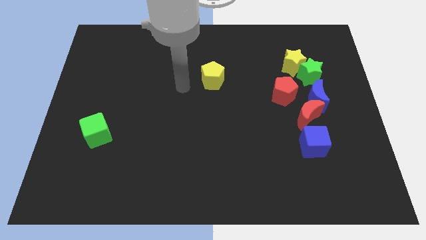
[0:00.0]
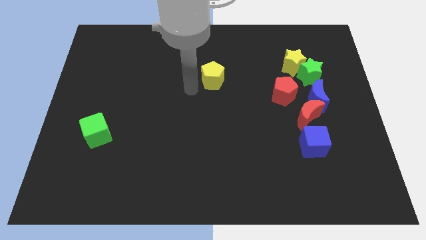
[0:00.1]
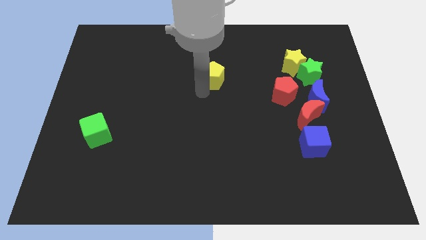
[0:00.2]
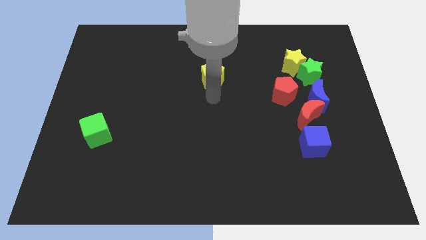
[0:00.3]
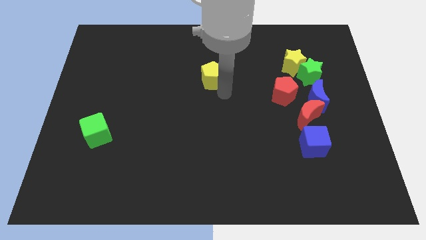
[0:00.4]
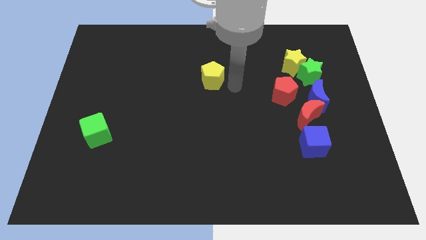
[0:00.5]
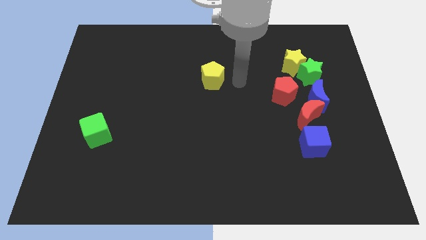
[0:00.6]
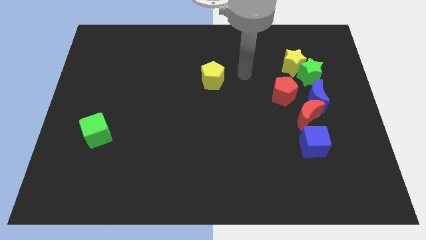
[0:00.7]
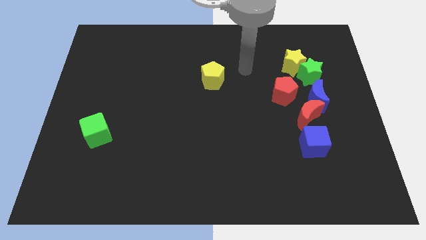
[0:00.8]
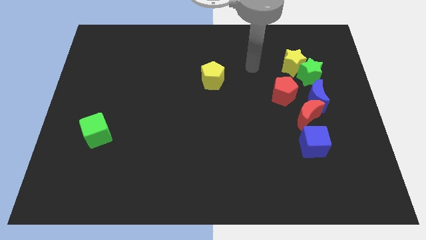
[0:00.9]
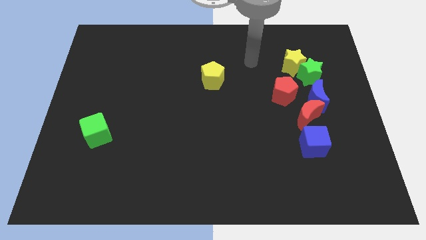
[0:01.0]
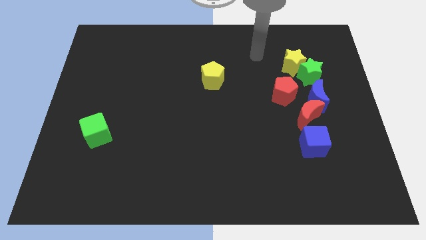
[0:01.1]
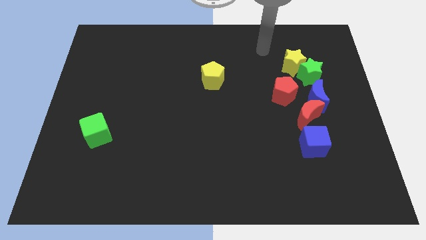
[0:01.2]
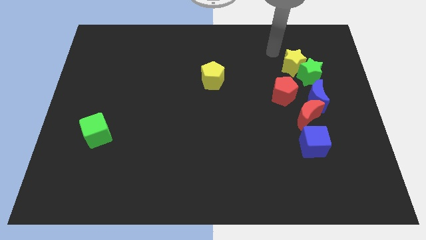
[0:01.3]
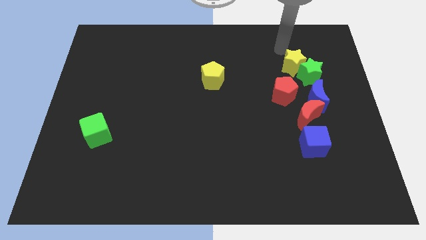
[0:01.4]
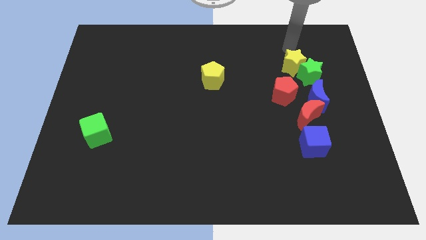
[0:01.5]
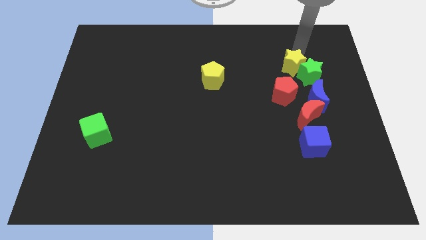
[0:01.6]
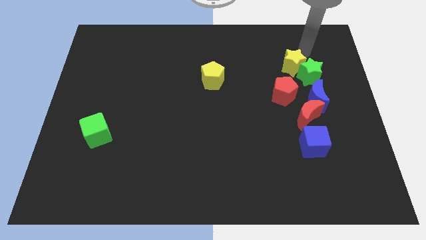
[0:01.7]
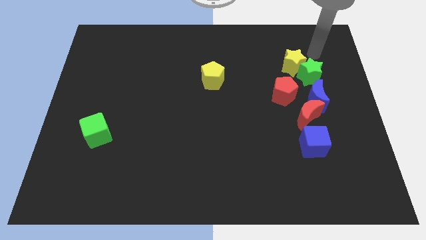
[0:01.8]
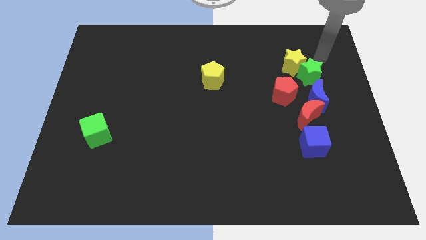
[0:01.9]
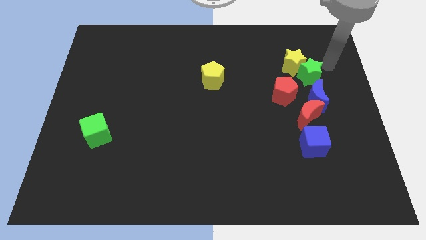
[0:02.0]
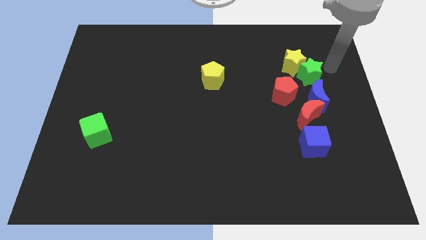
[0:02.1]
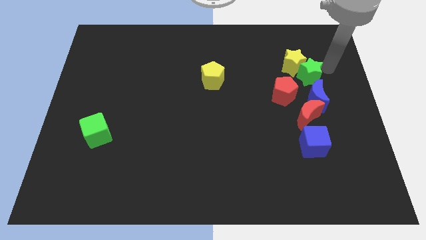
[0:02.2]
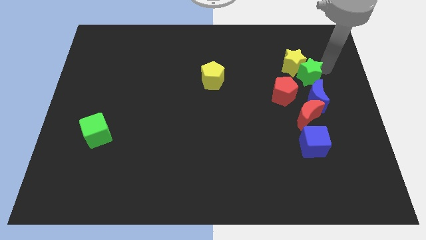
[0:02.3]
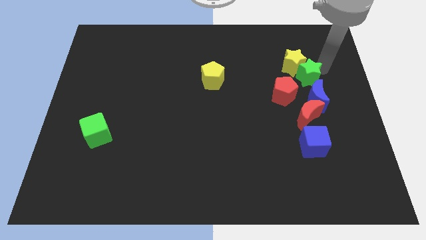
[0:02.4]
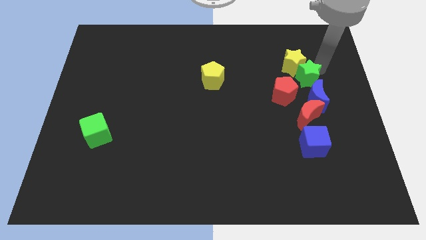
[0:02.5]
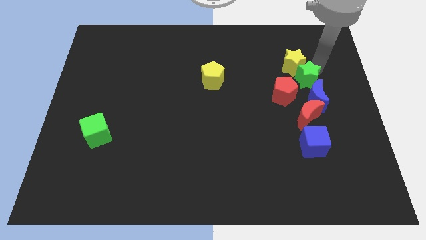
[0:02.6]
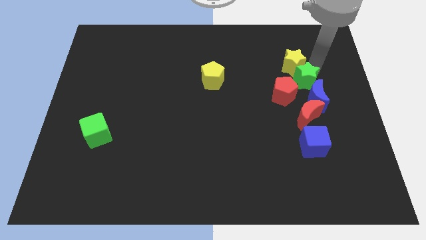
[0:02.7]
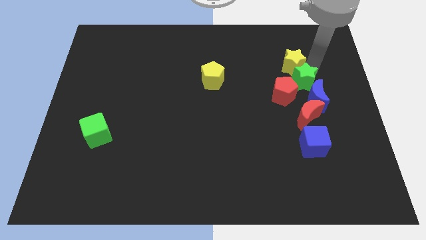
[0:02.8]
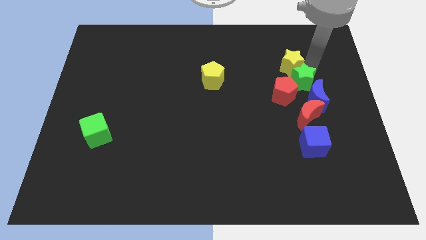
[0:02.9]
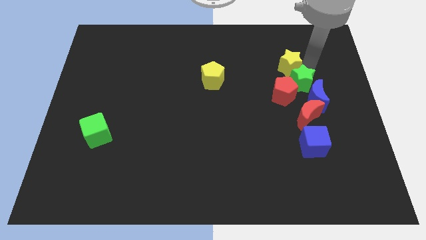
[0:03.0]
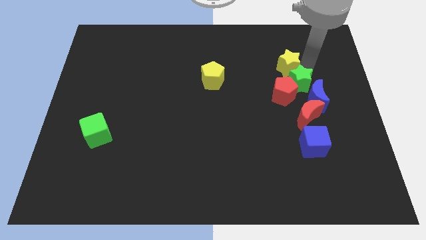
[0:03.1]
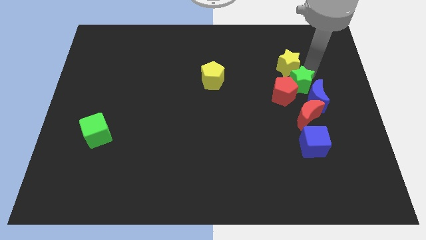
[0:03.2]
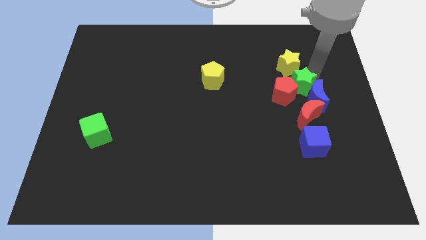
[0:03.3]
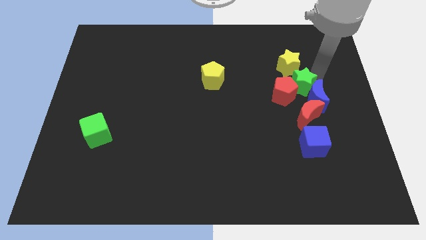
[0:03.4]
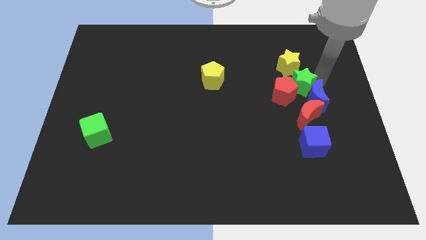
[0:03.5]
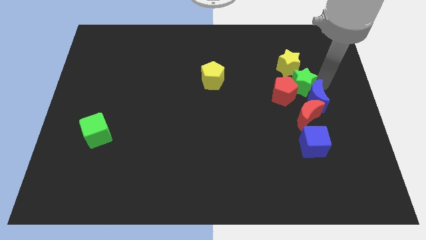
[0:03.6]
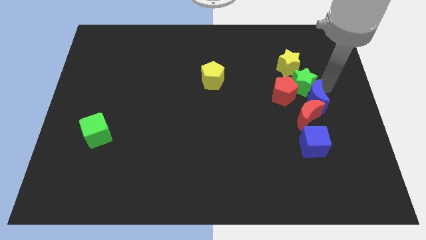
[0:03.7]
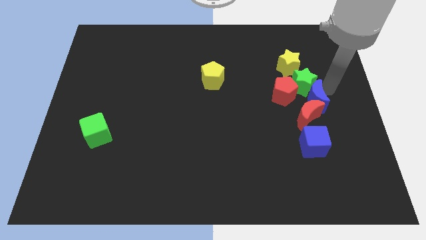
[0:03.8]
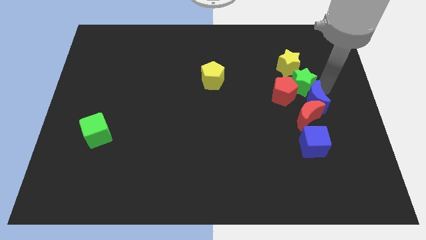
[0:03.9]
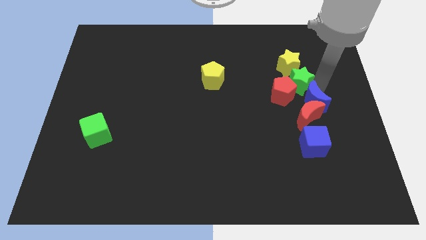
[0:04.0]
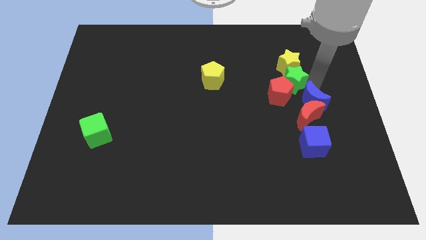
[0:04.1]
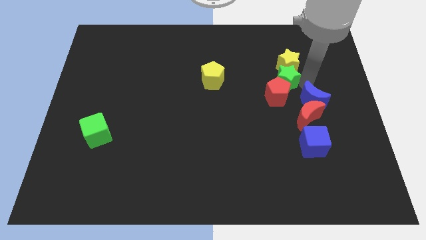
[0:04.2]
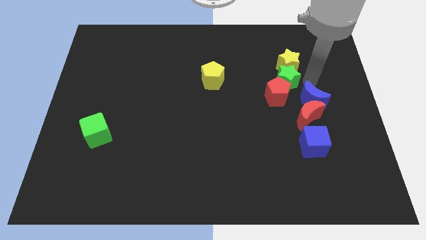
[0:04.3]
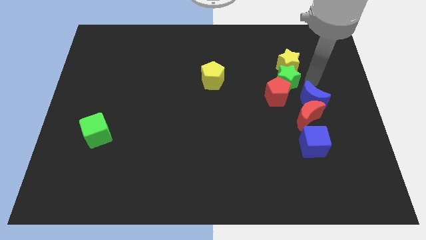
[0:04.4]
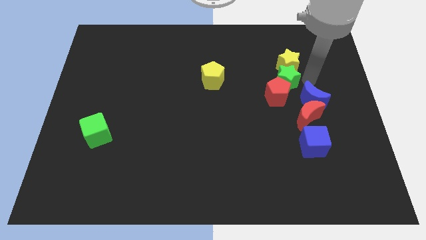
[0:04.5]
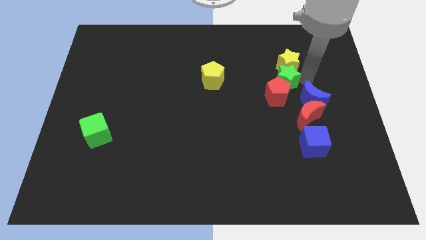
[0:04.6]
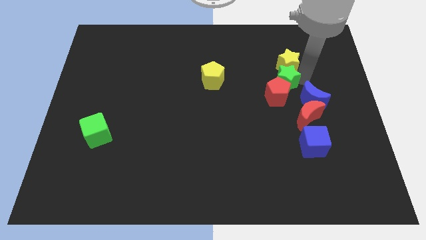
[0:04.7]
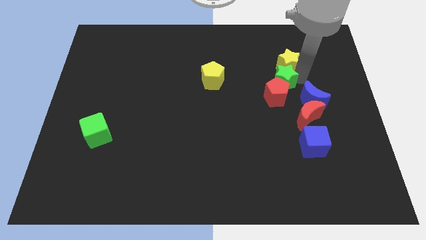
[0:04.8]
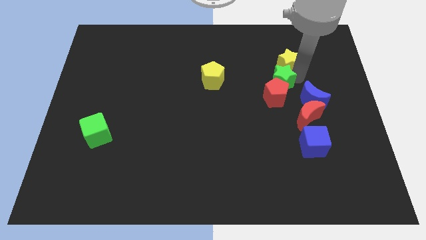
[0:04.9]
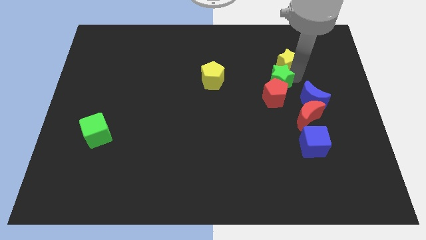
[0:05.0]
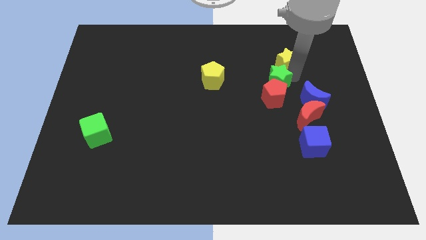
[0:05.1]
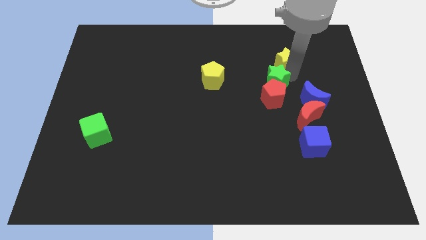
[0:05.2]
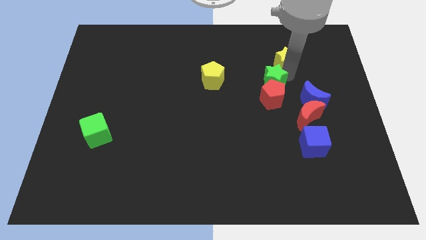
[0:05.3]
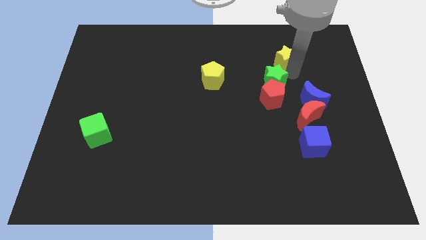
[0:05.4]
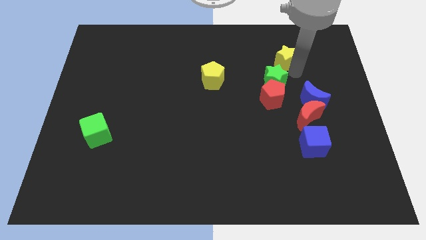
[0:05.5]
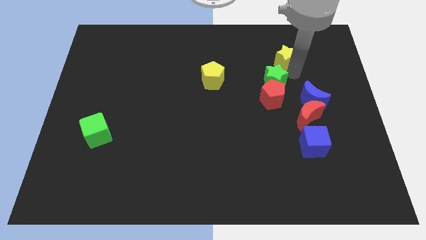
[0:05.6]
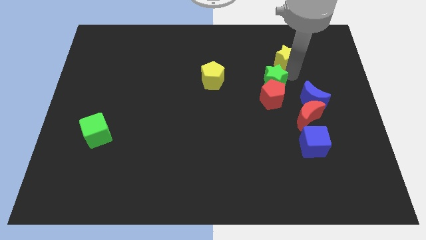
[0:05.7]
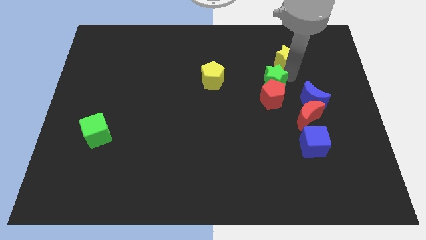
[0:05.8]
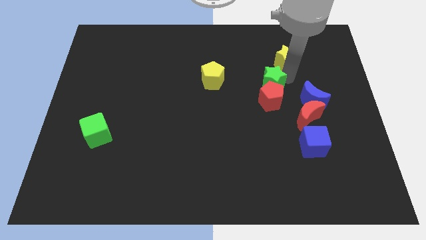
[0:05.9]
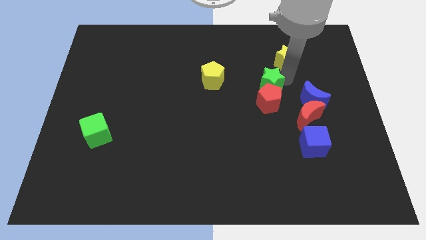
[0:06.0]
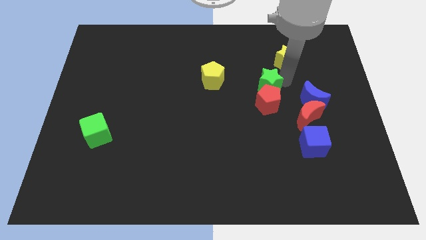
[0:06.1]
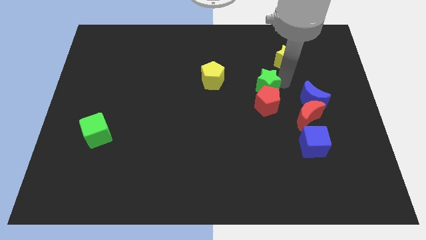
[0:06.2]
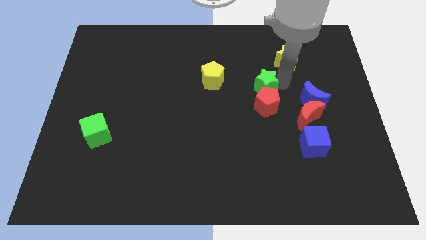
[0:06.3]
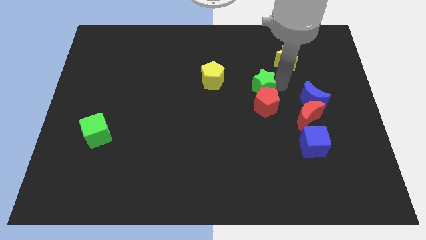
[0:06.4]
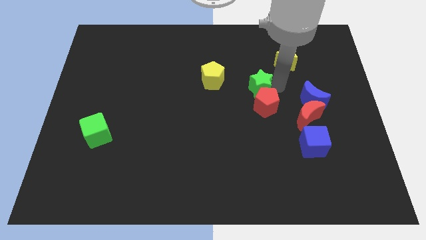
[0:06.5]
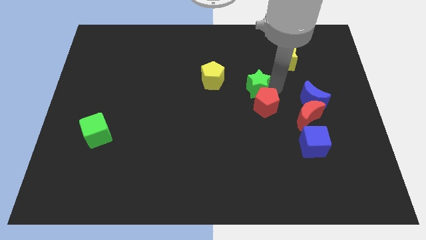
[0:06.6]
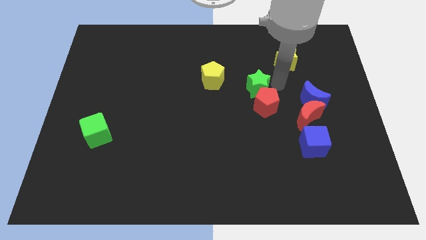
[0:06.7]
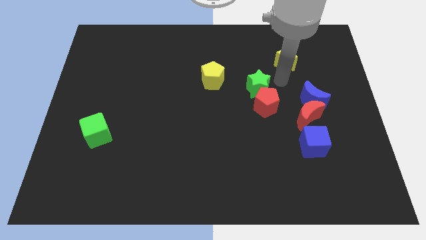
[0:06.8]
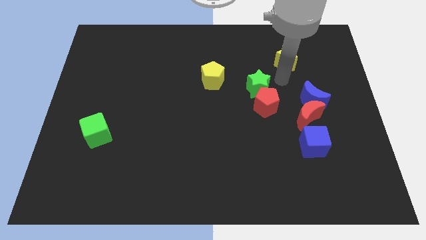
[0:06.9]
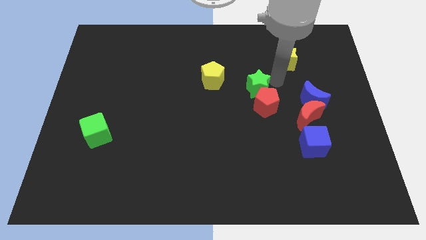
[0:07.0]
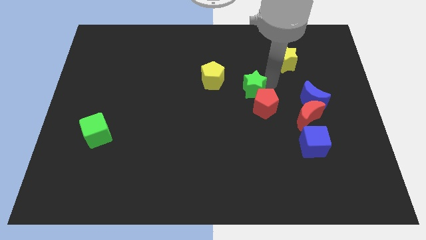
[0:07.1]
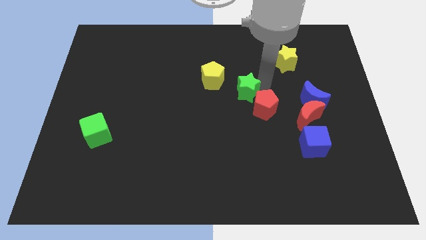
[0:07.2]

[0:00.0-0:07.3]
move the green star diagonally down and to the right of the yellow pentagon

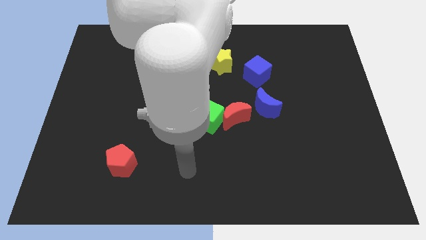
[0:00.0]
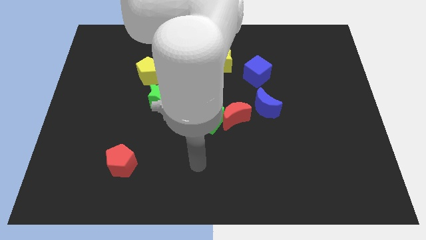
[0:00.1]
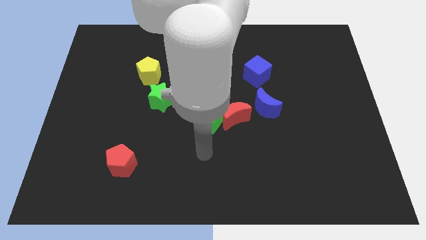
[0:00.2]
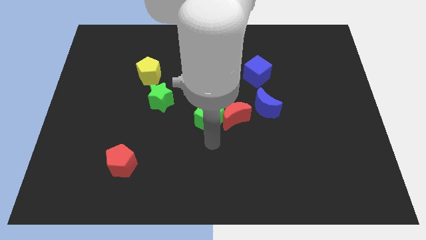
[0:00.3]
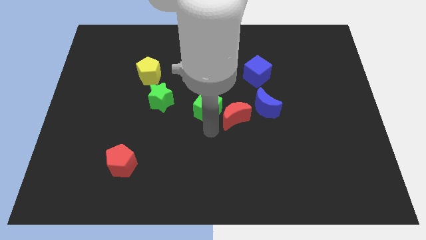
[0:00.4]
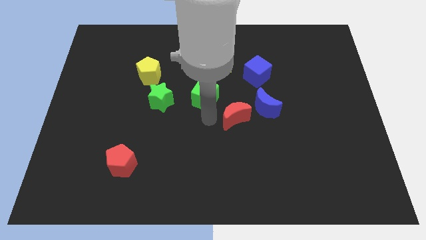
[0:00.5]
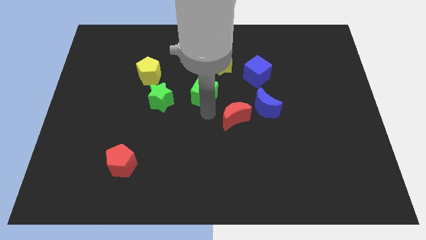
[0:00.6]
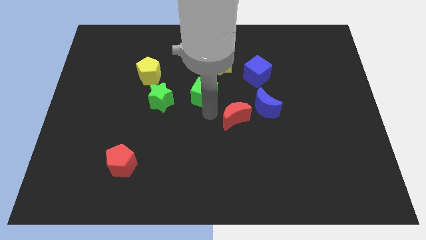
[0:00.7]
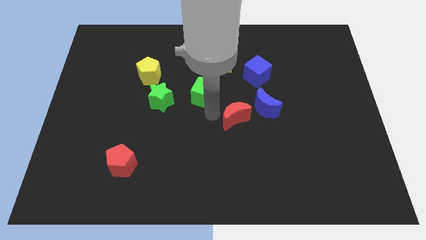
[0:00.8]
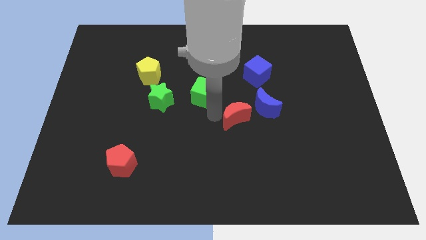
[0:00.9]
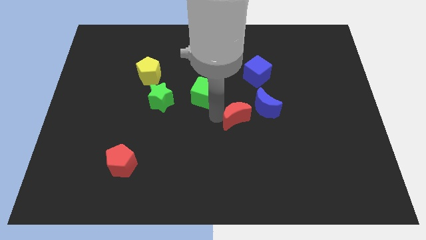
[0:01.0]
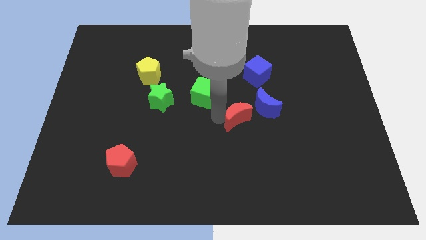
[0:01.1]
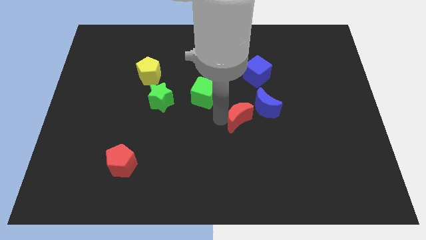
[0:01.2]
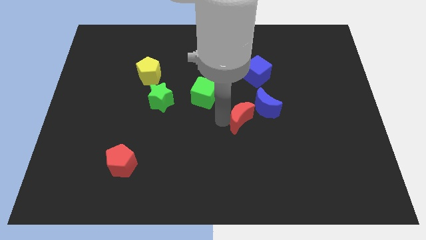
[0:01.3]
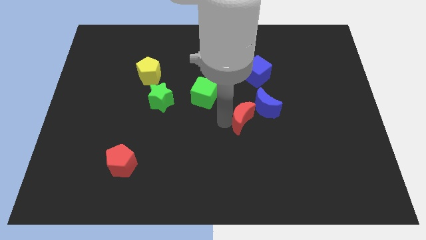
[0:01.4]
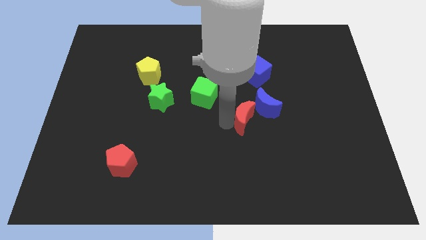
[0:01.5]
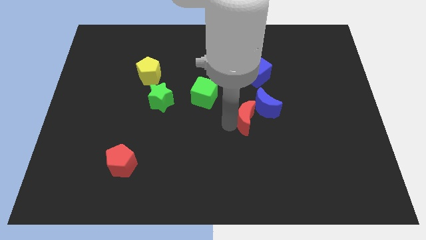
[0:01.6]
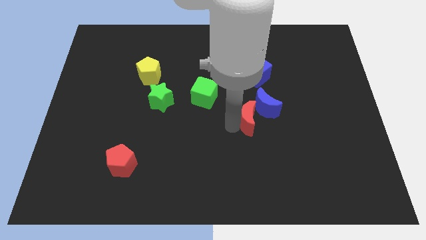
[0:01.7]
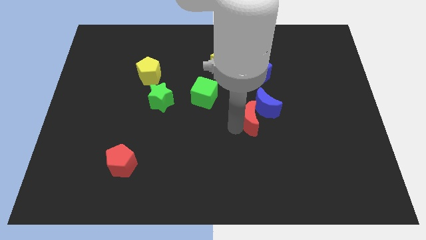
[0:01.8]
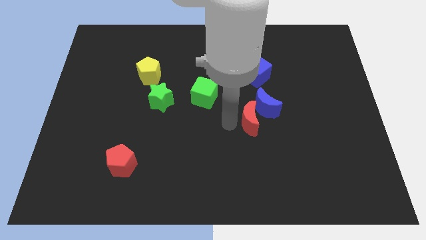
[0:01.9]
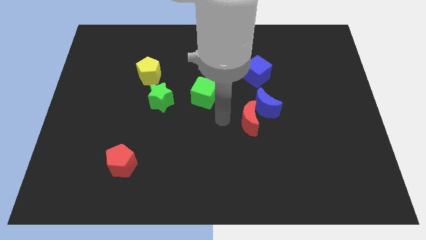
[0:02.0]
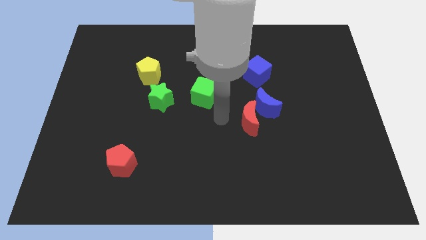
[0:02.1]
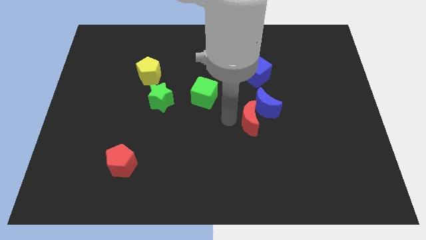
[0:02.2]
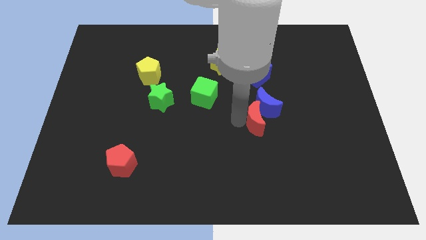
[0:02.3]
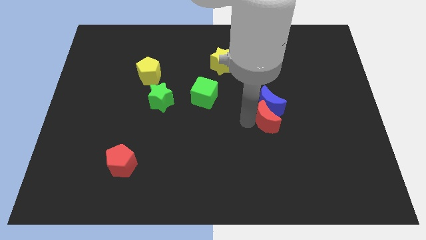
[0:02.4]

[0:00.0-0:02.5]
slide the red moon to the bottom right side of the blue moon
